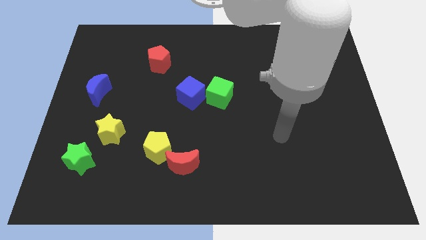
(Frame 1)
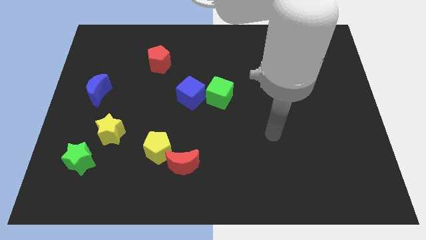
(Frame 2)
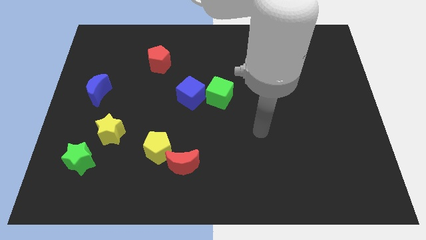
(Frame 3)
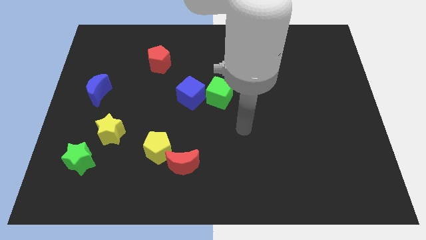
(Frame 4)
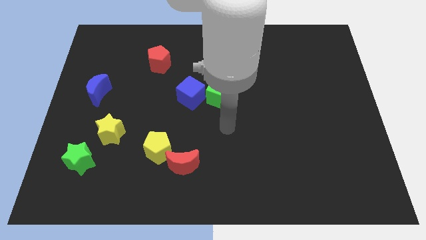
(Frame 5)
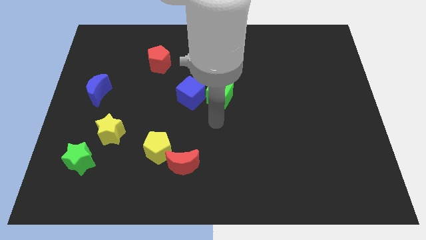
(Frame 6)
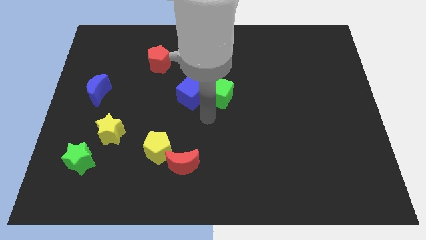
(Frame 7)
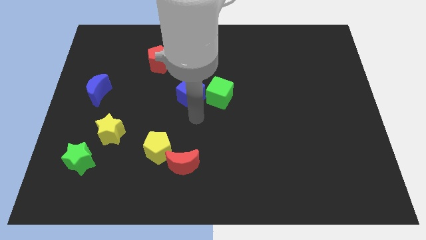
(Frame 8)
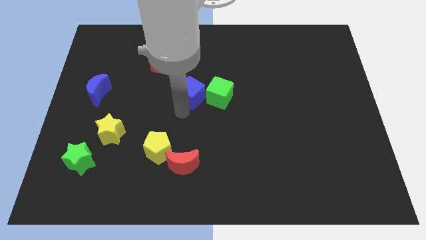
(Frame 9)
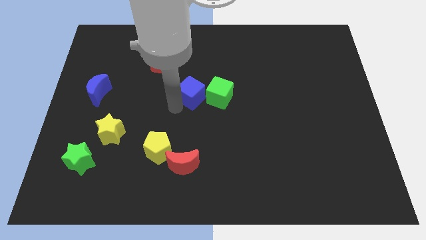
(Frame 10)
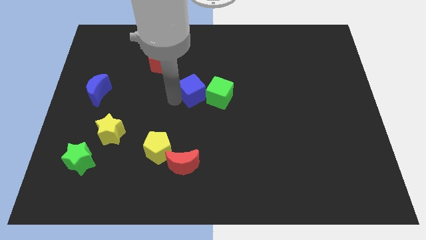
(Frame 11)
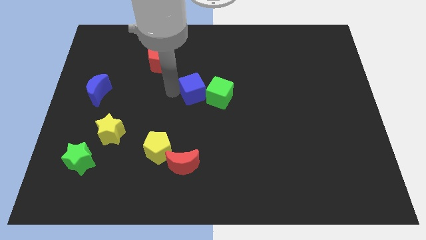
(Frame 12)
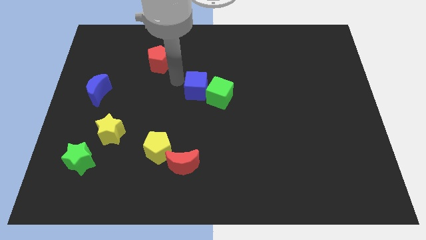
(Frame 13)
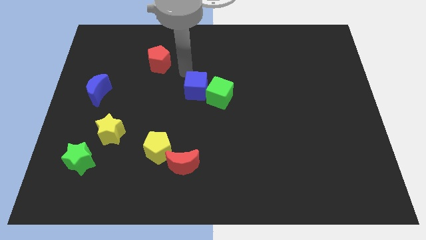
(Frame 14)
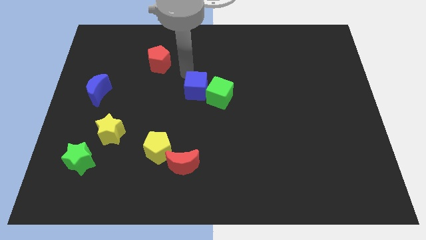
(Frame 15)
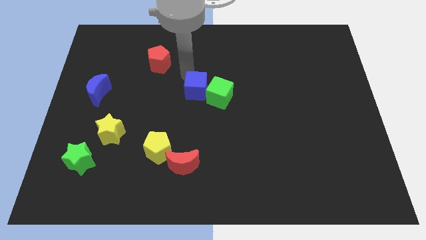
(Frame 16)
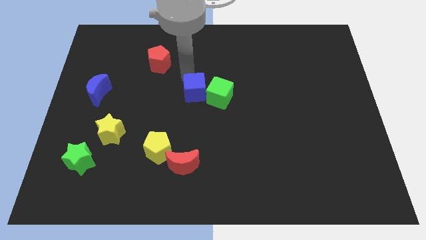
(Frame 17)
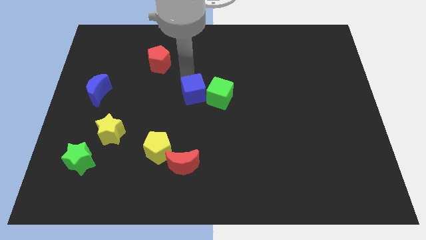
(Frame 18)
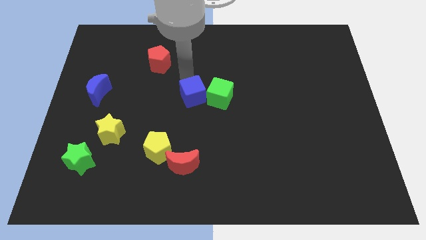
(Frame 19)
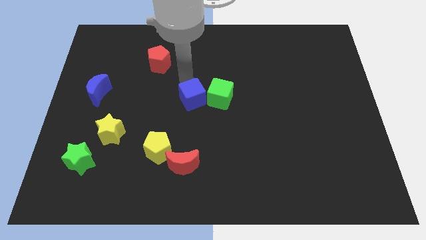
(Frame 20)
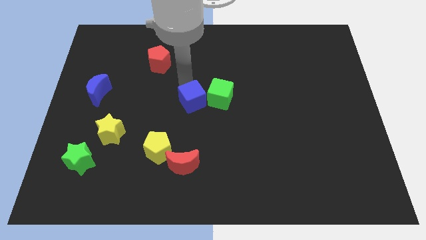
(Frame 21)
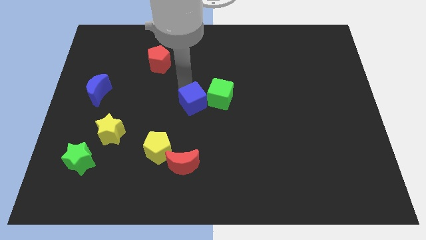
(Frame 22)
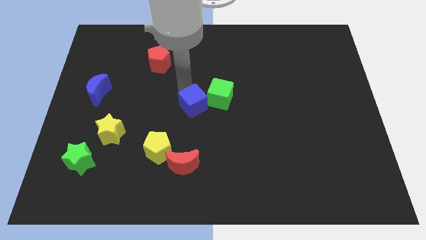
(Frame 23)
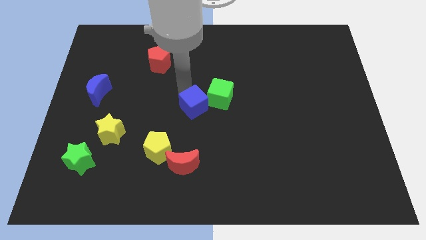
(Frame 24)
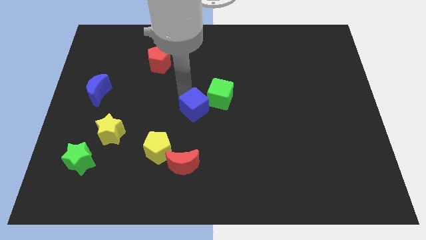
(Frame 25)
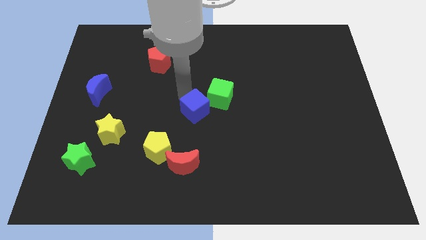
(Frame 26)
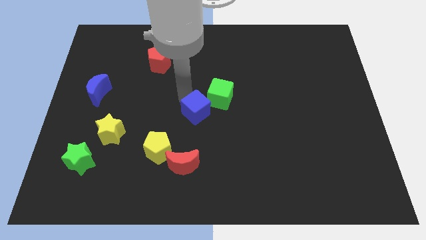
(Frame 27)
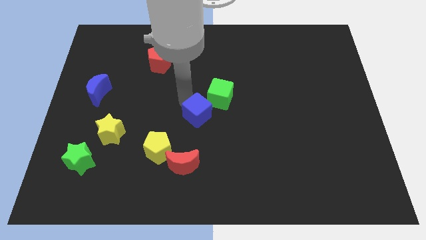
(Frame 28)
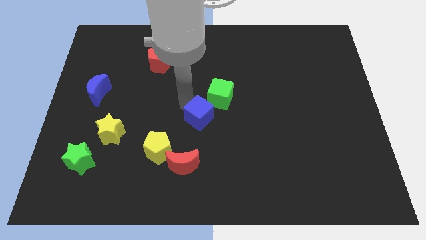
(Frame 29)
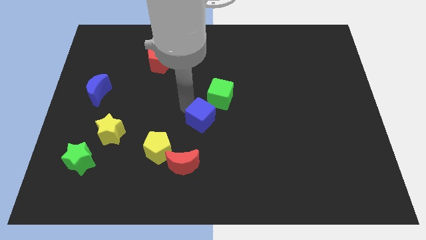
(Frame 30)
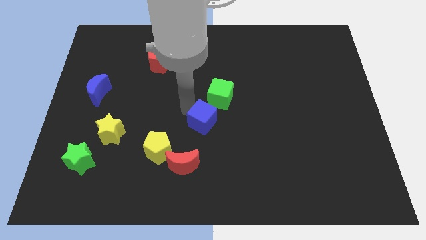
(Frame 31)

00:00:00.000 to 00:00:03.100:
slide the blue cube downwards and then to the right slightly

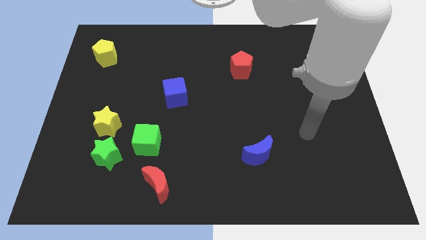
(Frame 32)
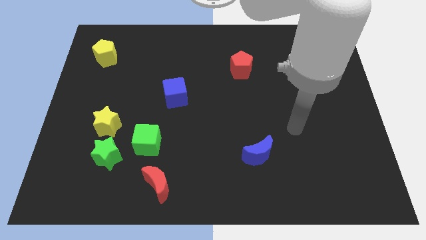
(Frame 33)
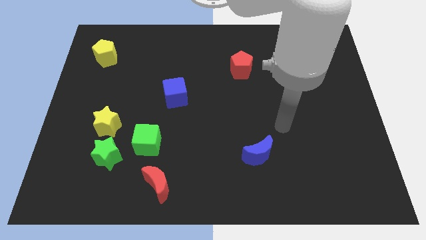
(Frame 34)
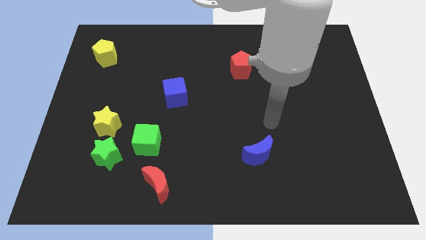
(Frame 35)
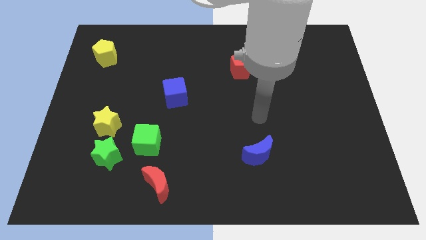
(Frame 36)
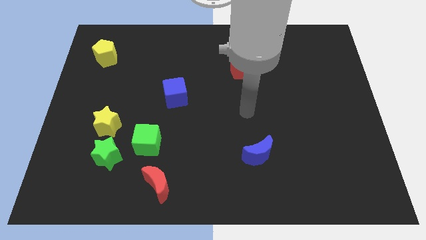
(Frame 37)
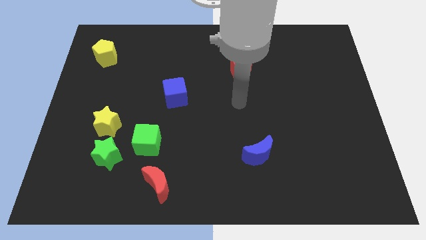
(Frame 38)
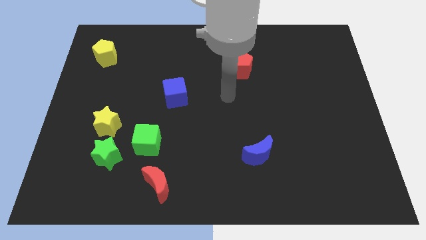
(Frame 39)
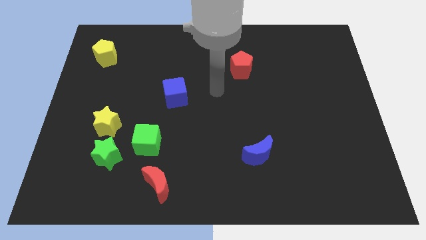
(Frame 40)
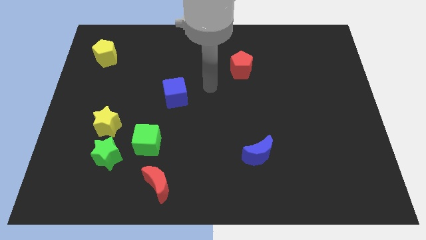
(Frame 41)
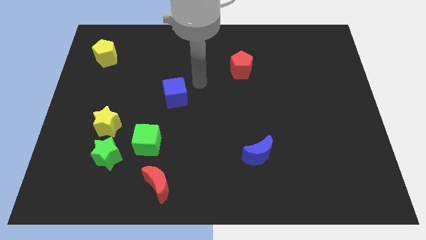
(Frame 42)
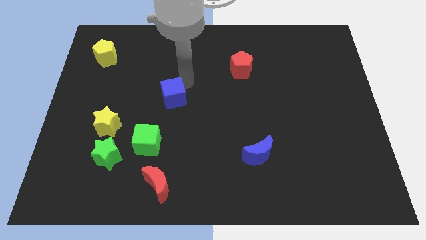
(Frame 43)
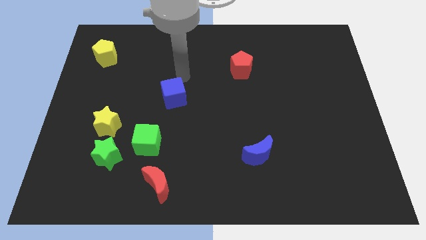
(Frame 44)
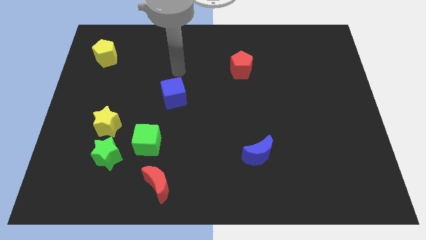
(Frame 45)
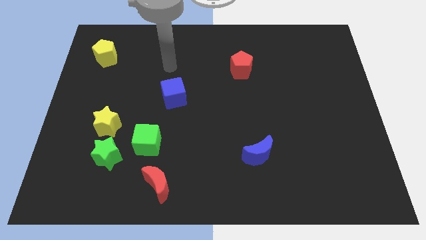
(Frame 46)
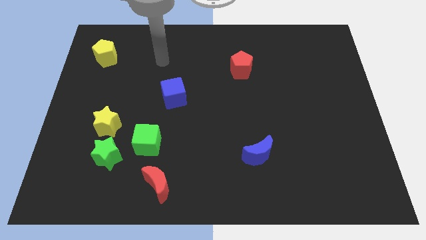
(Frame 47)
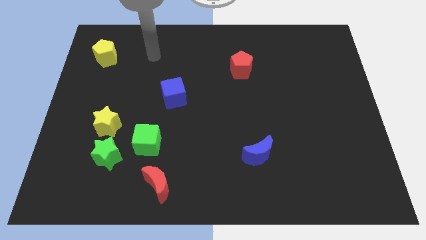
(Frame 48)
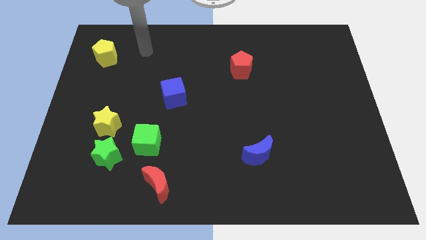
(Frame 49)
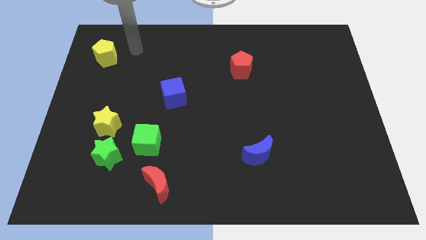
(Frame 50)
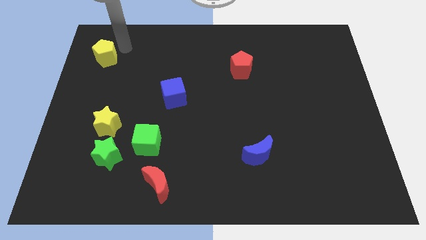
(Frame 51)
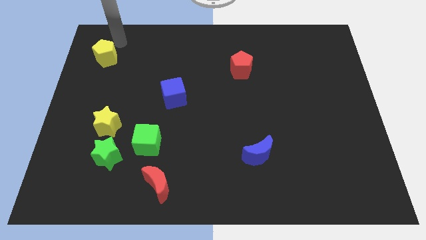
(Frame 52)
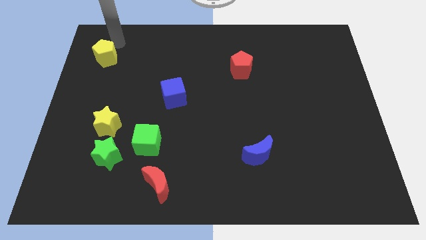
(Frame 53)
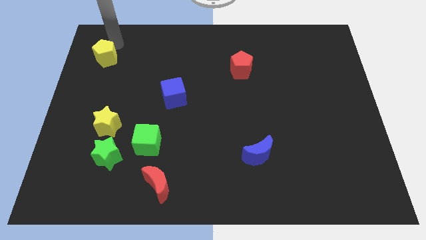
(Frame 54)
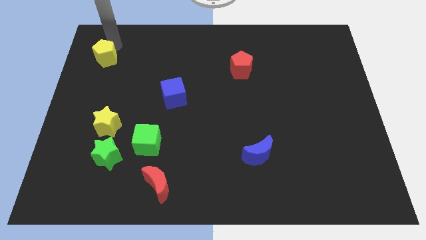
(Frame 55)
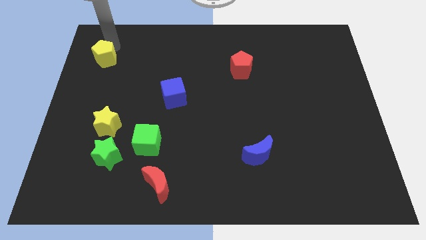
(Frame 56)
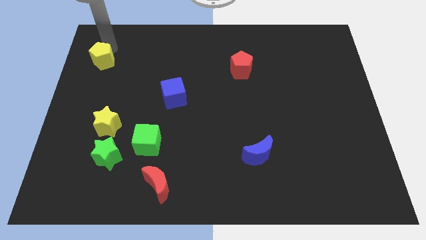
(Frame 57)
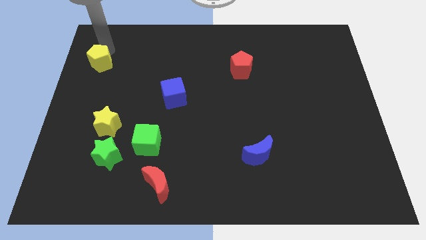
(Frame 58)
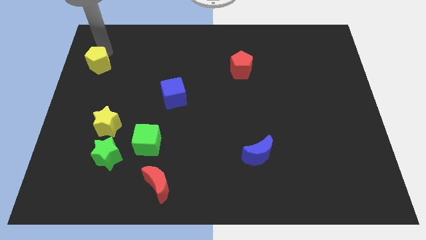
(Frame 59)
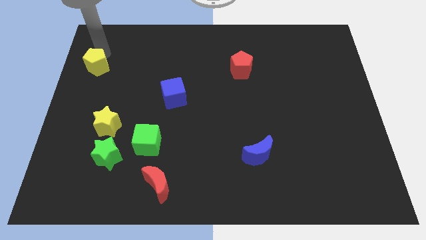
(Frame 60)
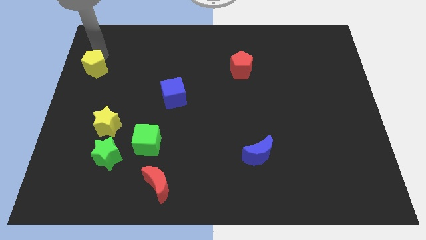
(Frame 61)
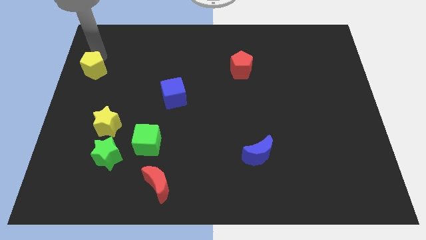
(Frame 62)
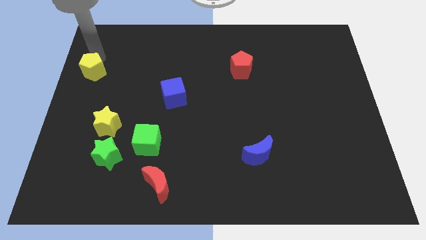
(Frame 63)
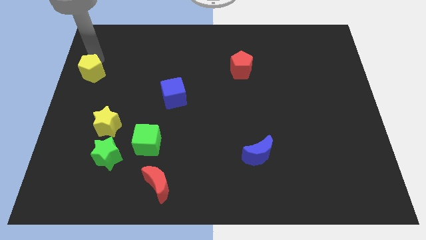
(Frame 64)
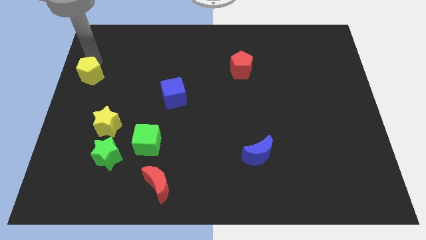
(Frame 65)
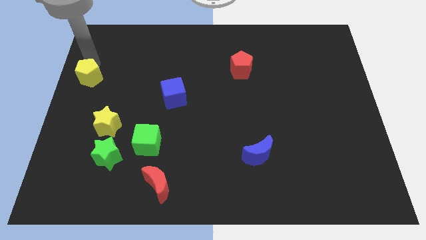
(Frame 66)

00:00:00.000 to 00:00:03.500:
slide the yellow pentagon a little downwards

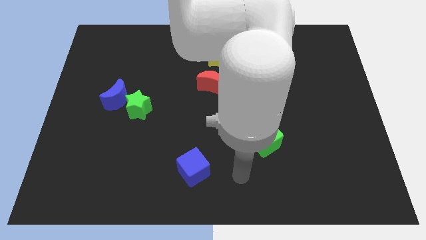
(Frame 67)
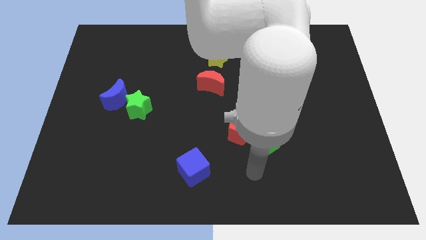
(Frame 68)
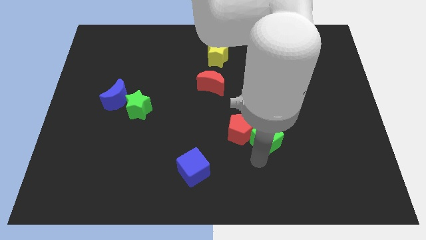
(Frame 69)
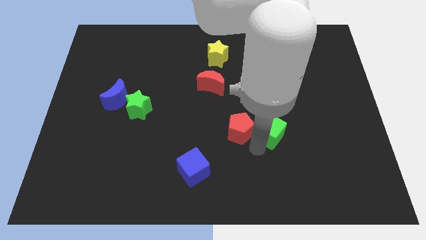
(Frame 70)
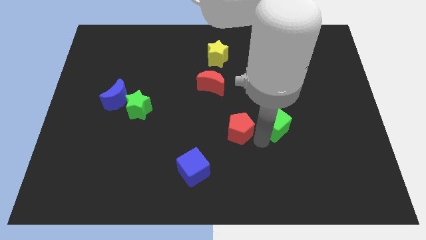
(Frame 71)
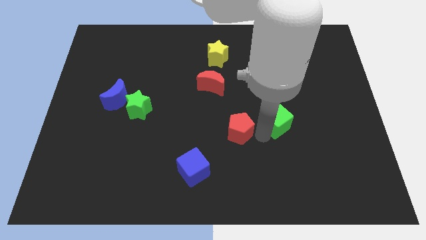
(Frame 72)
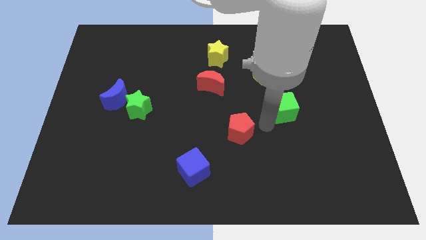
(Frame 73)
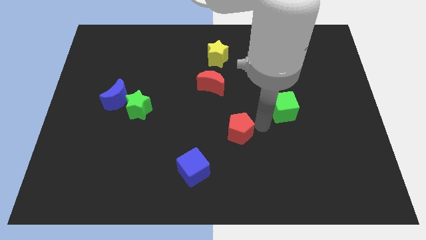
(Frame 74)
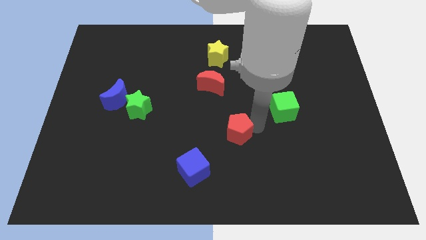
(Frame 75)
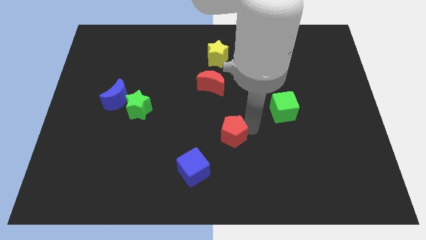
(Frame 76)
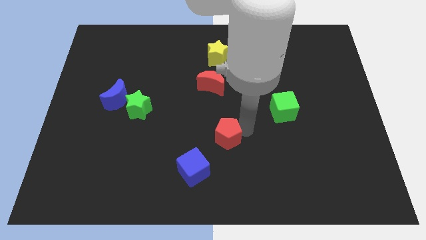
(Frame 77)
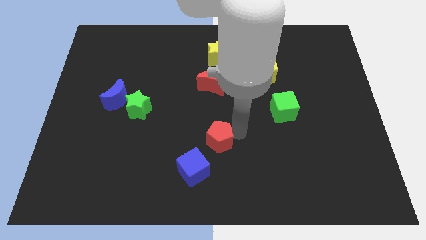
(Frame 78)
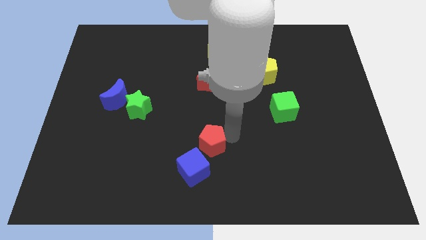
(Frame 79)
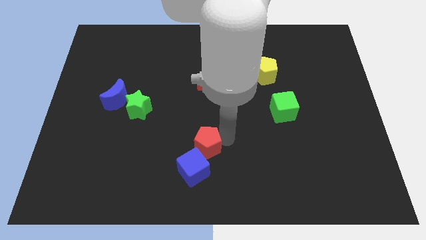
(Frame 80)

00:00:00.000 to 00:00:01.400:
move the red pentagon to the left slightly

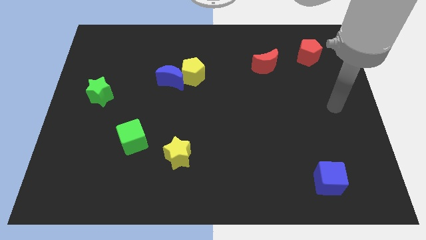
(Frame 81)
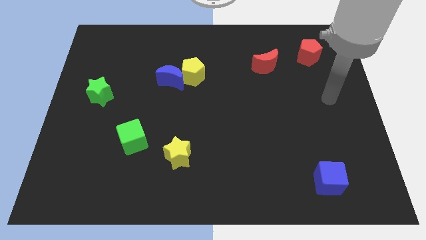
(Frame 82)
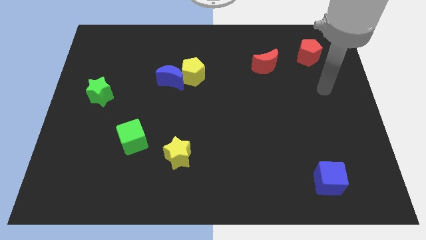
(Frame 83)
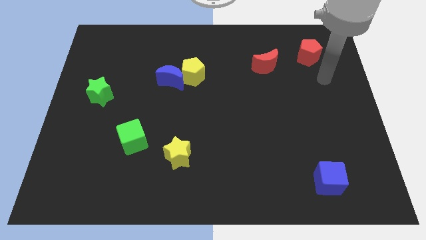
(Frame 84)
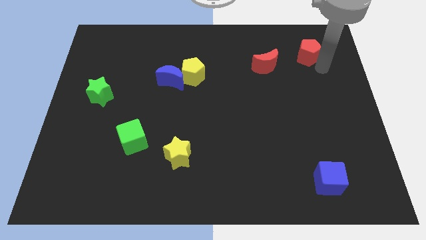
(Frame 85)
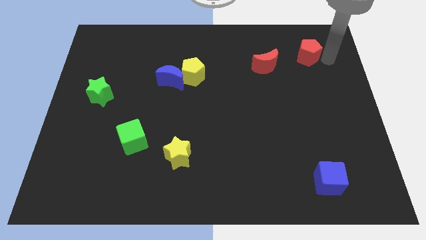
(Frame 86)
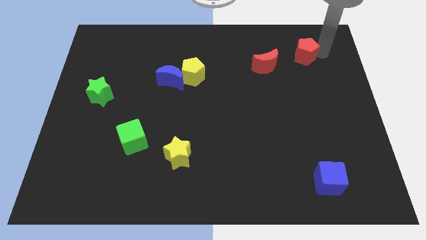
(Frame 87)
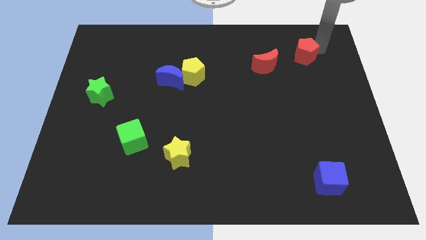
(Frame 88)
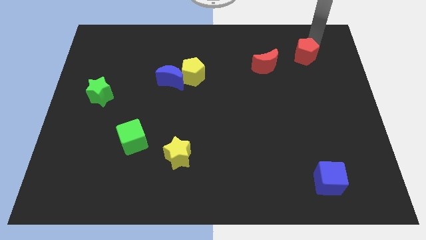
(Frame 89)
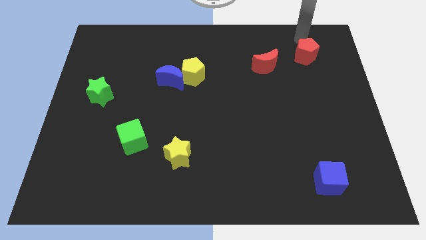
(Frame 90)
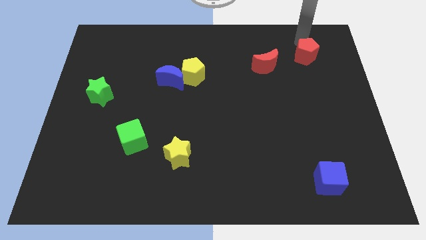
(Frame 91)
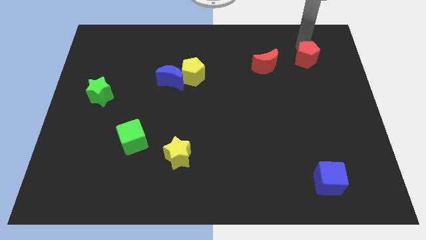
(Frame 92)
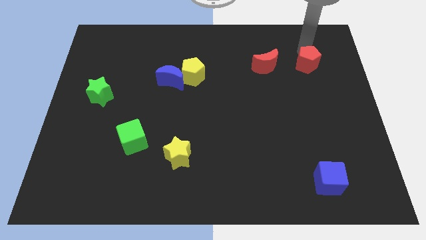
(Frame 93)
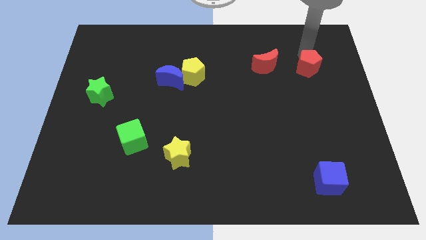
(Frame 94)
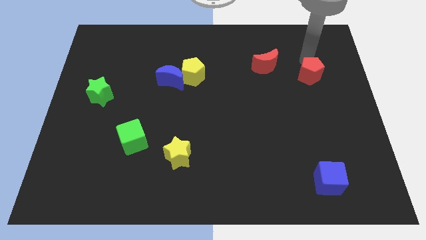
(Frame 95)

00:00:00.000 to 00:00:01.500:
push the red pentagon down somewhat
